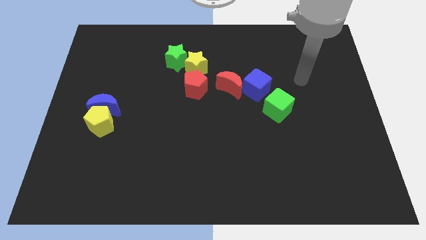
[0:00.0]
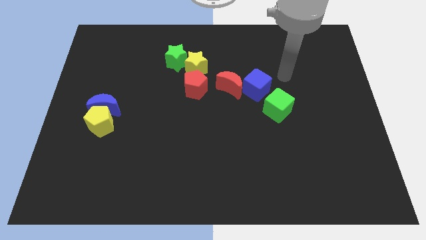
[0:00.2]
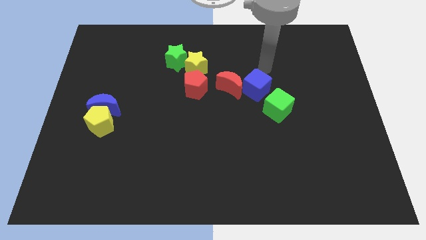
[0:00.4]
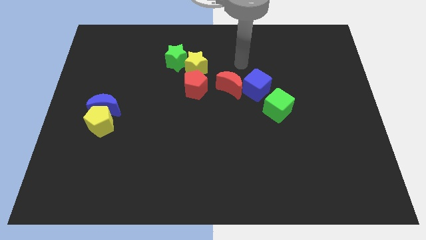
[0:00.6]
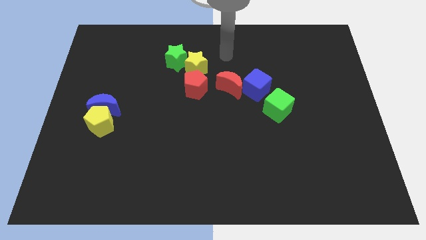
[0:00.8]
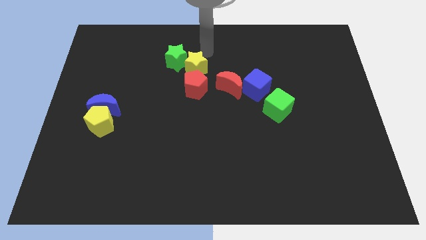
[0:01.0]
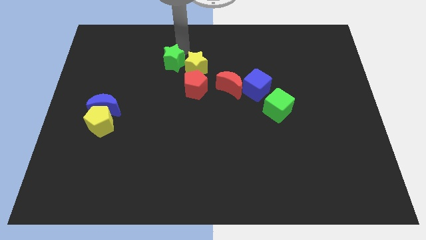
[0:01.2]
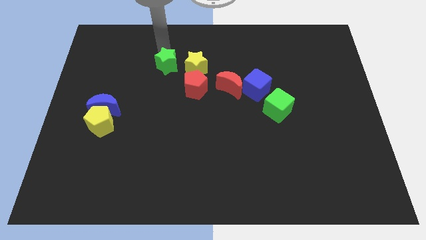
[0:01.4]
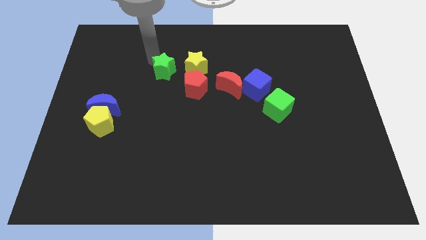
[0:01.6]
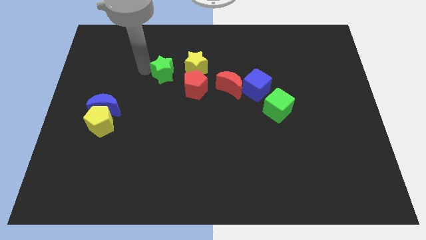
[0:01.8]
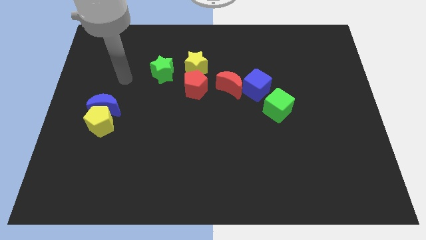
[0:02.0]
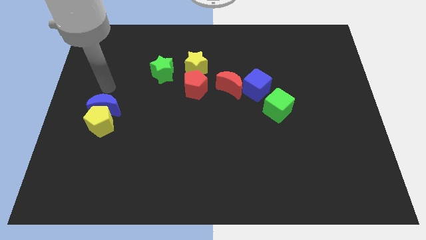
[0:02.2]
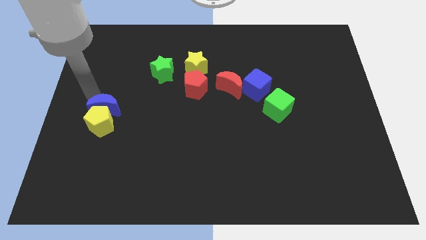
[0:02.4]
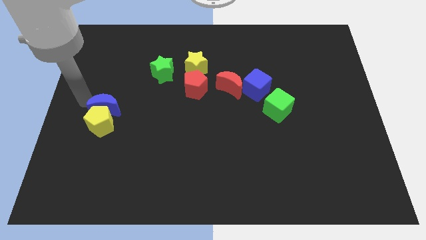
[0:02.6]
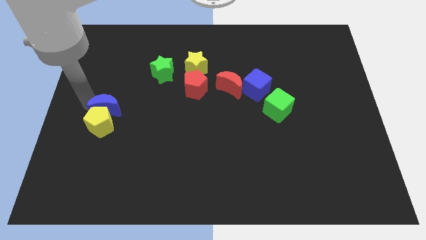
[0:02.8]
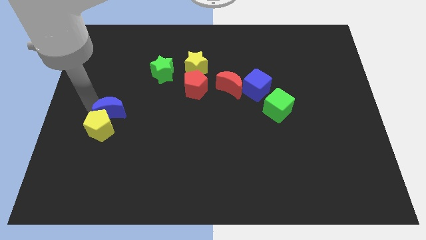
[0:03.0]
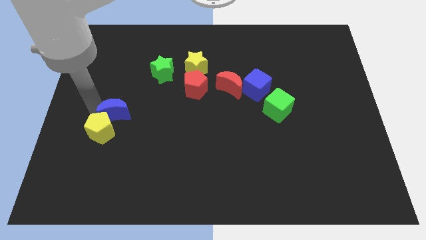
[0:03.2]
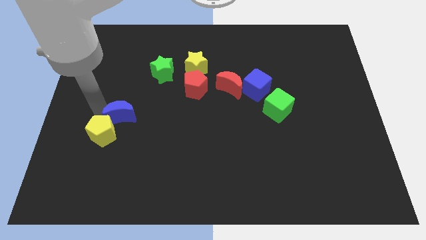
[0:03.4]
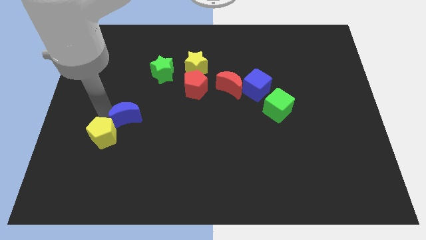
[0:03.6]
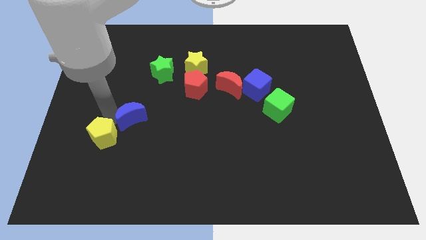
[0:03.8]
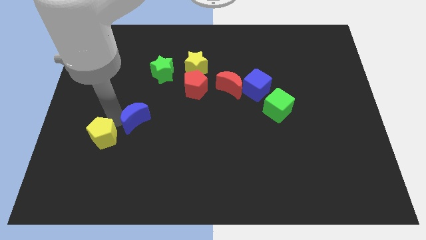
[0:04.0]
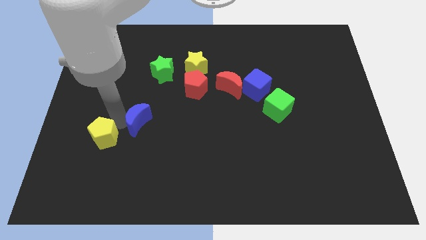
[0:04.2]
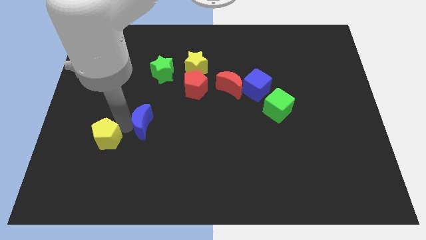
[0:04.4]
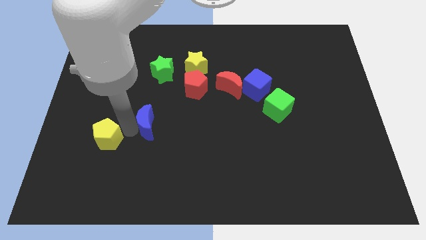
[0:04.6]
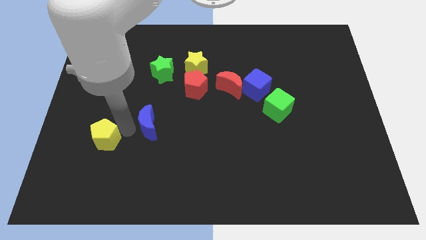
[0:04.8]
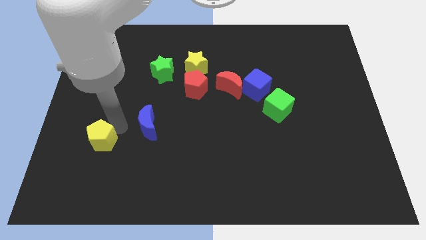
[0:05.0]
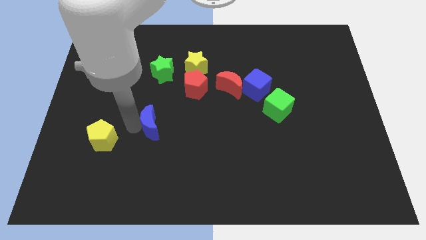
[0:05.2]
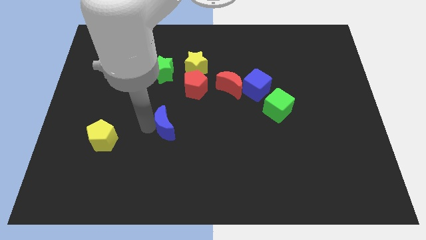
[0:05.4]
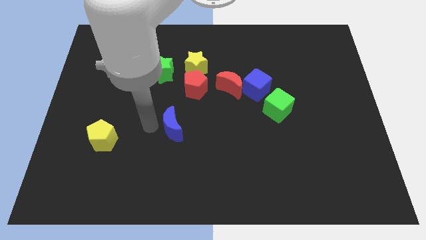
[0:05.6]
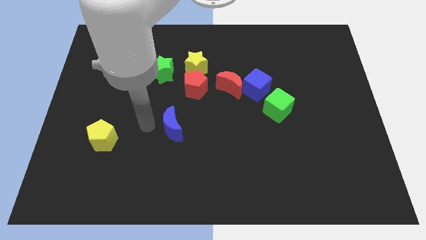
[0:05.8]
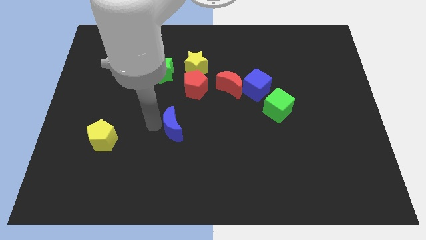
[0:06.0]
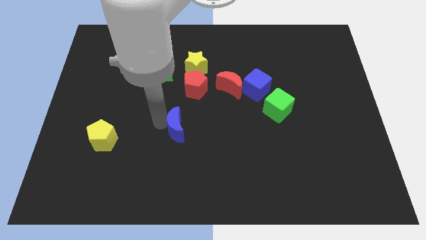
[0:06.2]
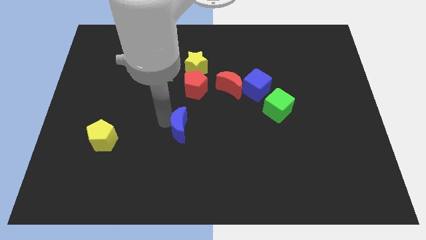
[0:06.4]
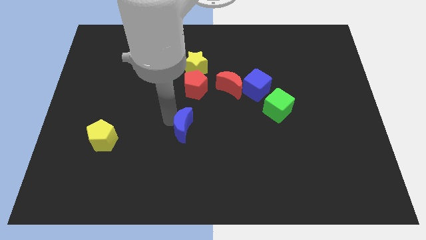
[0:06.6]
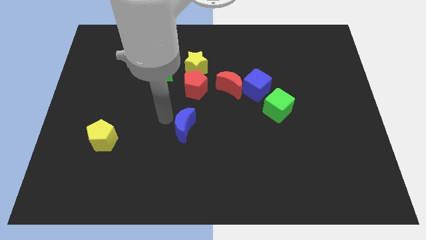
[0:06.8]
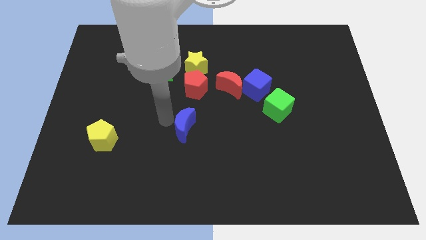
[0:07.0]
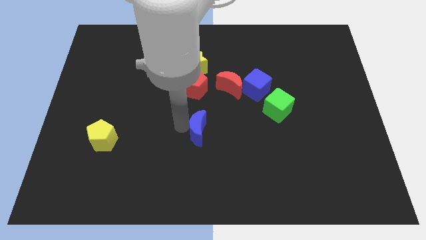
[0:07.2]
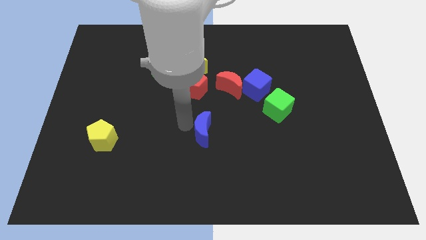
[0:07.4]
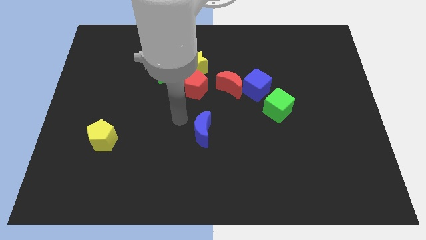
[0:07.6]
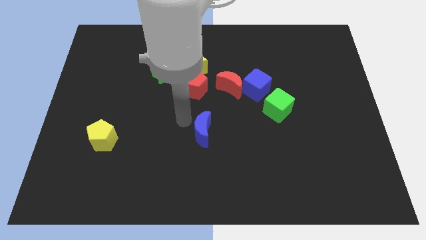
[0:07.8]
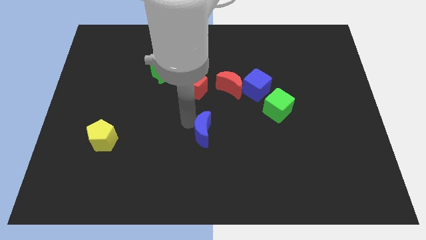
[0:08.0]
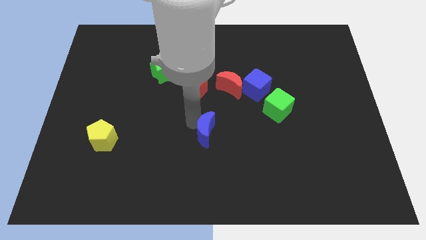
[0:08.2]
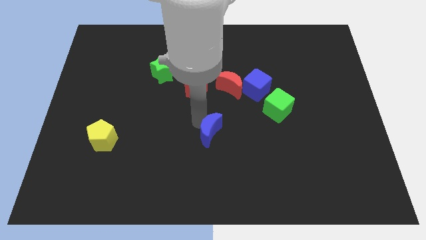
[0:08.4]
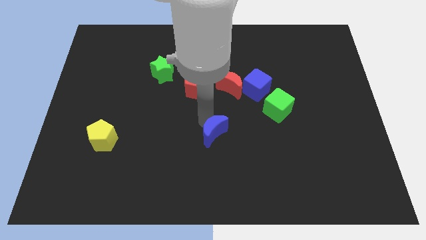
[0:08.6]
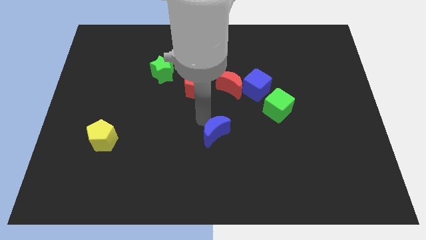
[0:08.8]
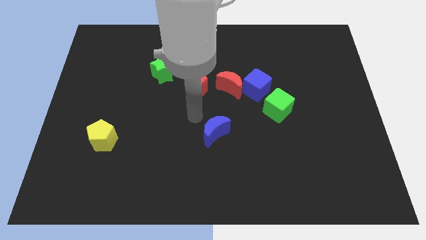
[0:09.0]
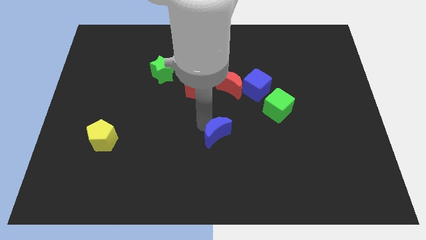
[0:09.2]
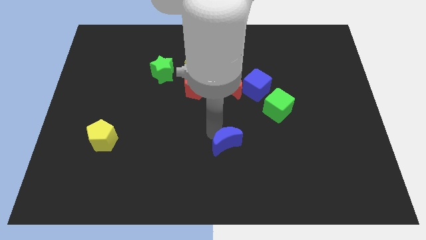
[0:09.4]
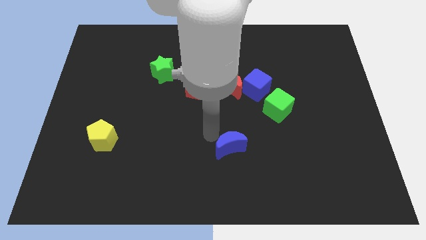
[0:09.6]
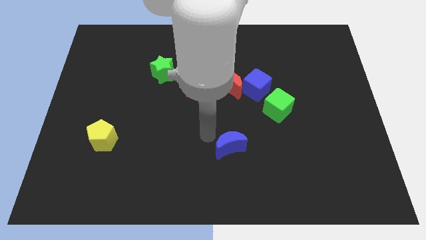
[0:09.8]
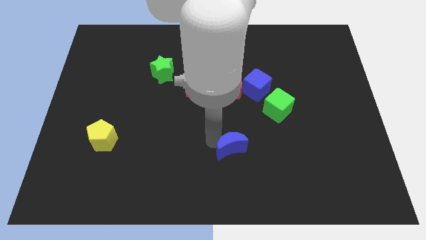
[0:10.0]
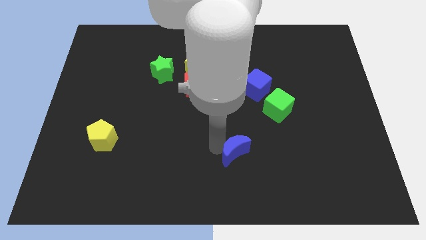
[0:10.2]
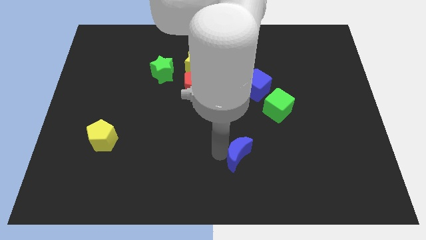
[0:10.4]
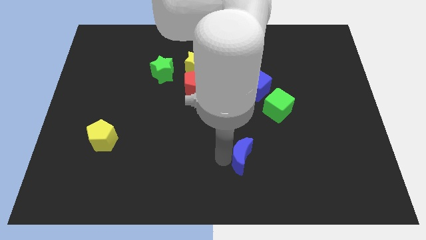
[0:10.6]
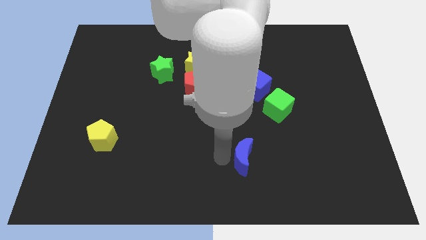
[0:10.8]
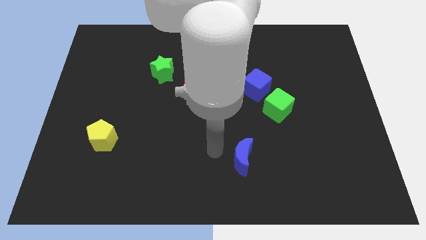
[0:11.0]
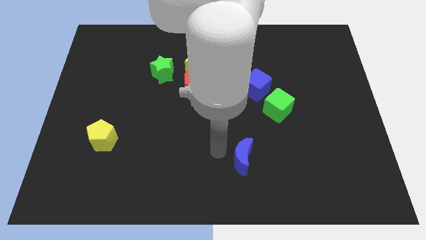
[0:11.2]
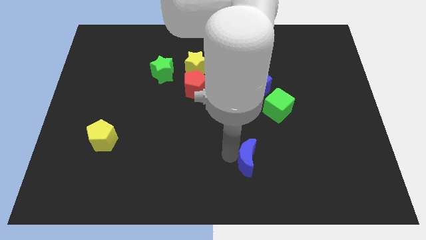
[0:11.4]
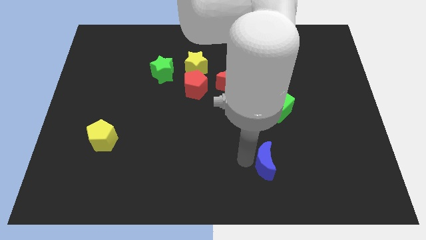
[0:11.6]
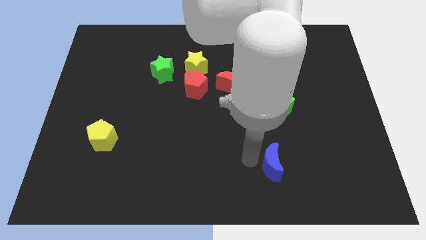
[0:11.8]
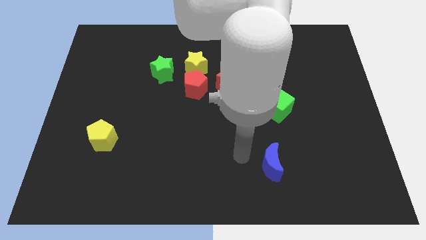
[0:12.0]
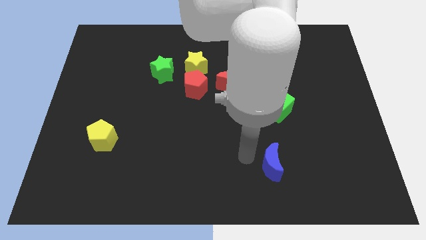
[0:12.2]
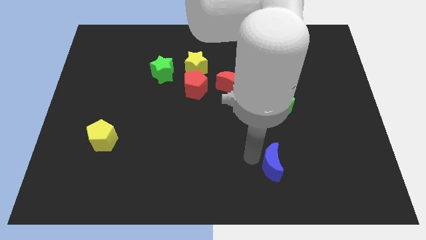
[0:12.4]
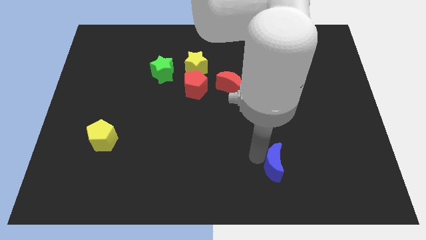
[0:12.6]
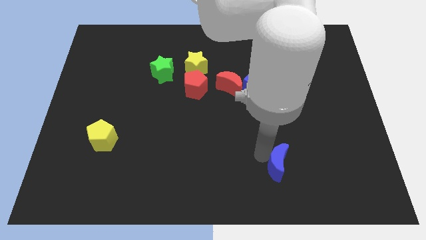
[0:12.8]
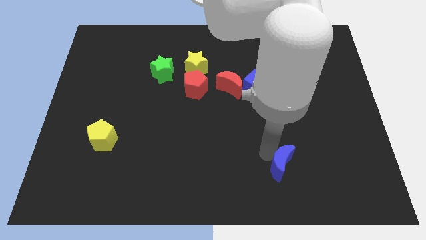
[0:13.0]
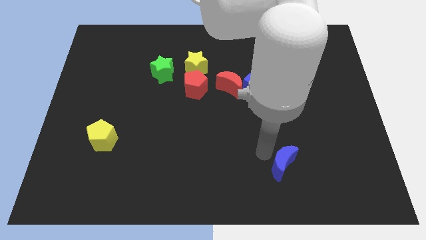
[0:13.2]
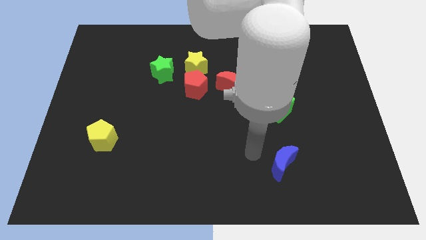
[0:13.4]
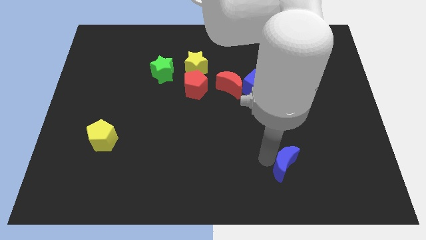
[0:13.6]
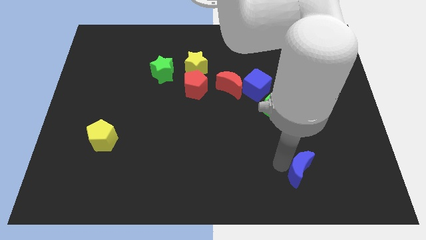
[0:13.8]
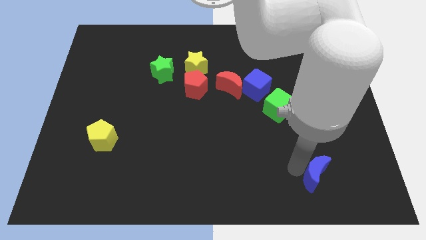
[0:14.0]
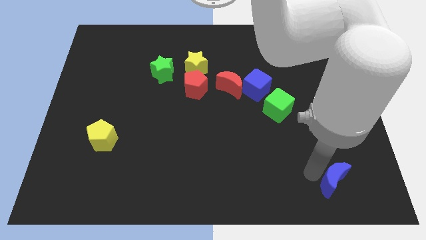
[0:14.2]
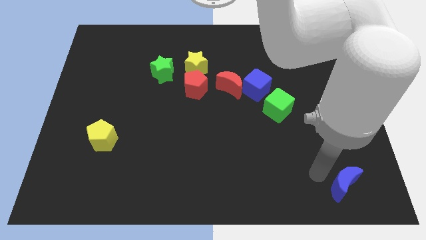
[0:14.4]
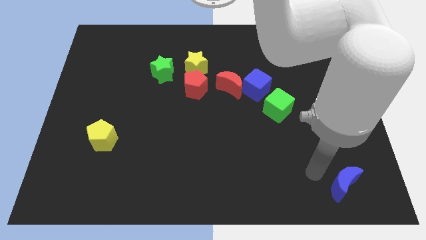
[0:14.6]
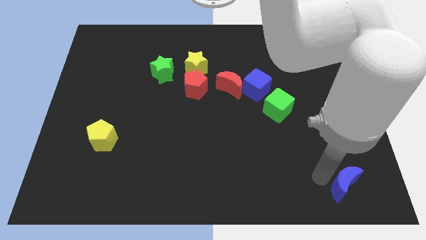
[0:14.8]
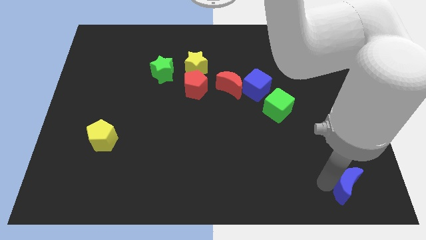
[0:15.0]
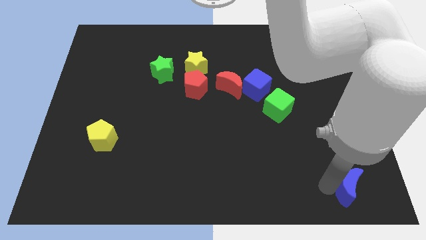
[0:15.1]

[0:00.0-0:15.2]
move the blue moon to the lower right corner

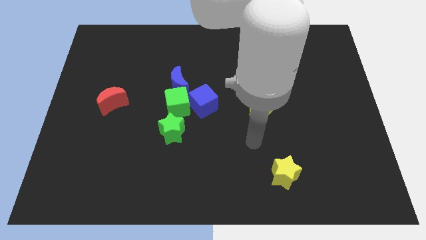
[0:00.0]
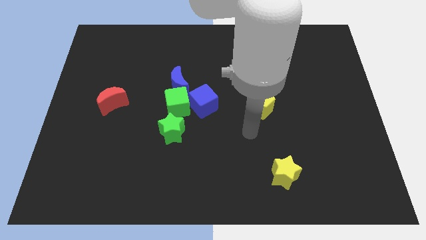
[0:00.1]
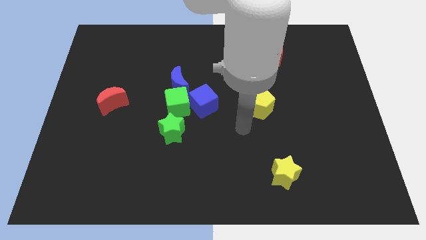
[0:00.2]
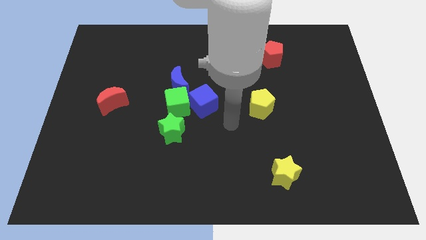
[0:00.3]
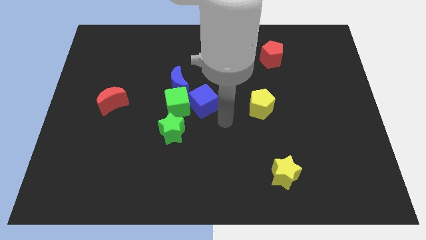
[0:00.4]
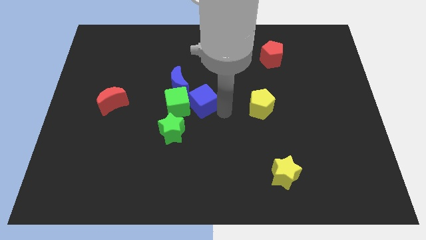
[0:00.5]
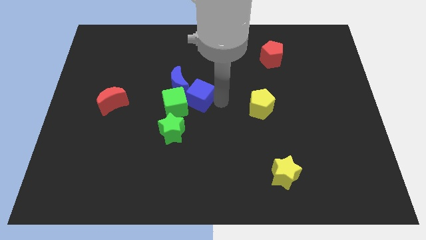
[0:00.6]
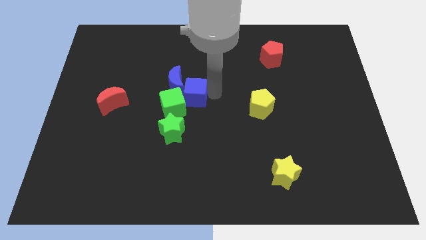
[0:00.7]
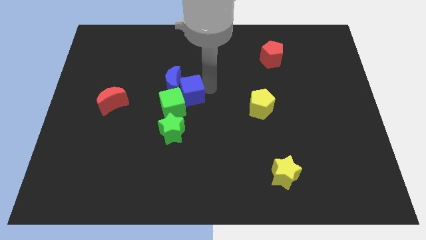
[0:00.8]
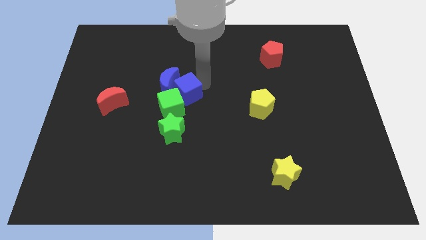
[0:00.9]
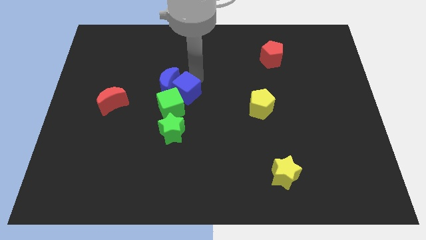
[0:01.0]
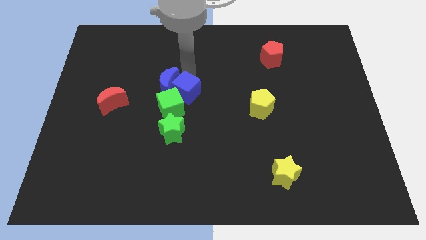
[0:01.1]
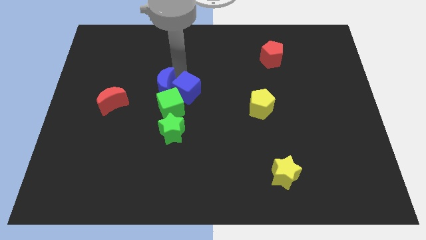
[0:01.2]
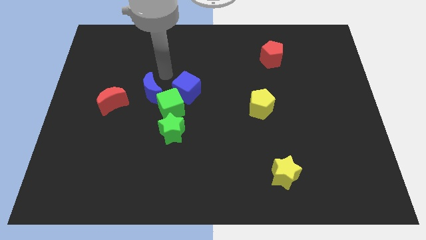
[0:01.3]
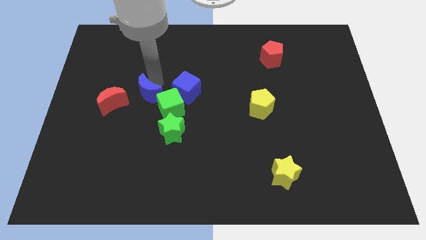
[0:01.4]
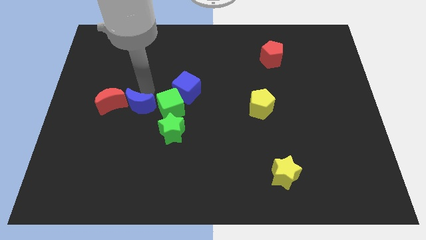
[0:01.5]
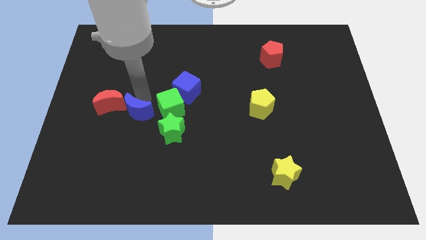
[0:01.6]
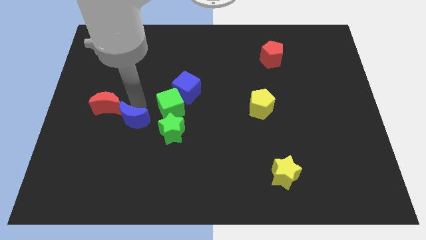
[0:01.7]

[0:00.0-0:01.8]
put the red moon to the center left
